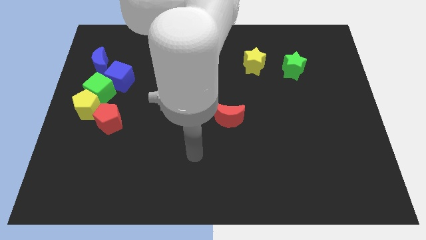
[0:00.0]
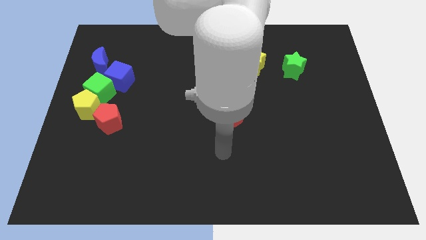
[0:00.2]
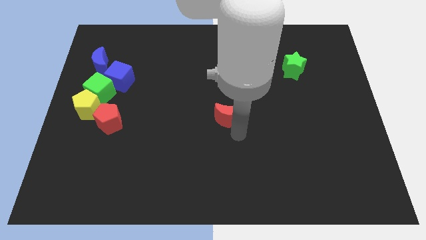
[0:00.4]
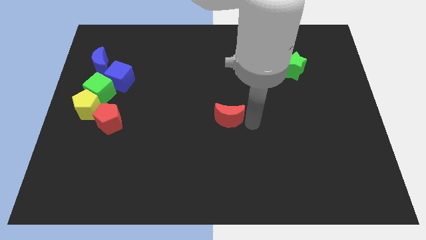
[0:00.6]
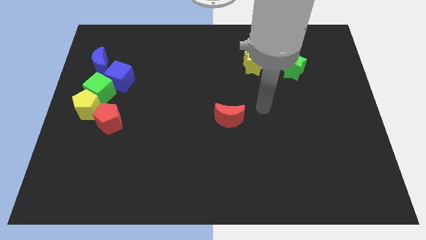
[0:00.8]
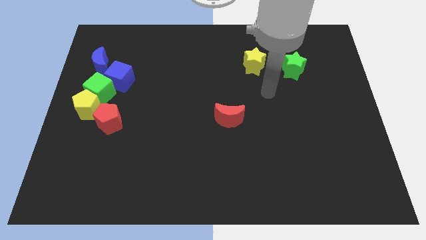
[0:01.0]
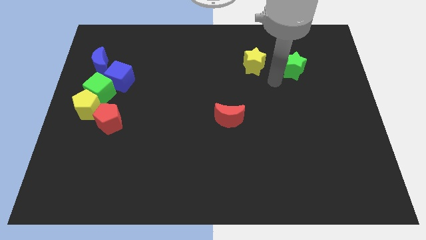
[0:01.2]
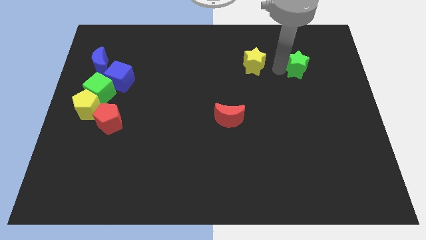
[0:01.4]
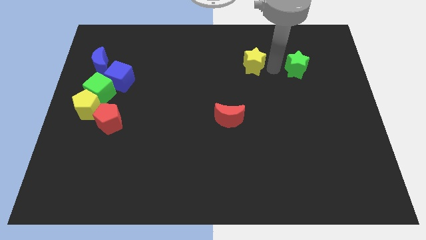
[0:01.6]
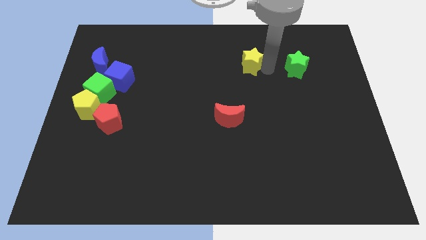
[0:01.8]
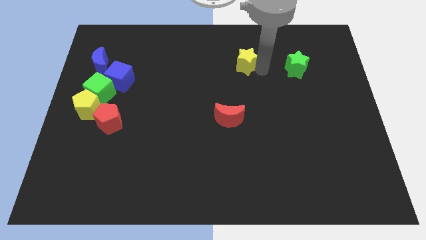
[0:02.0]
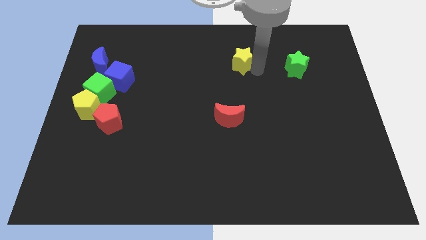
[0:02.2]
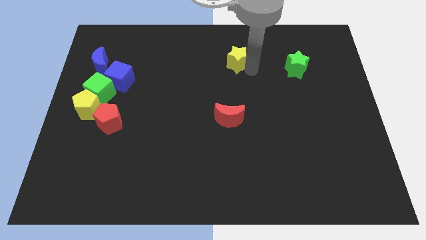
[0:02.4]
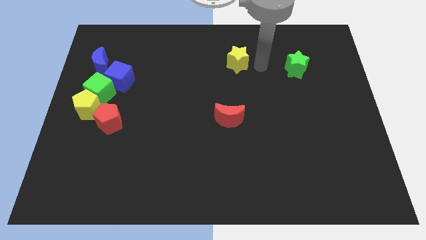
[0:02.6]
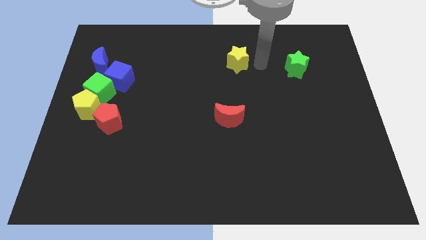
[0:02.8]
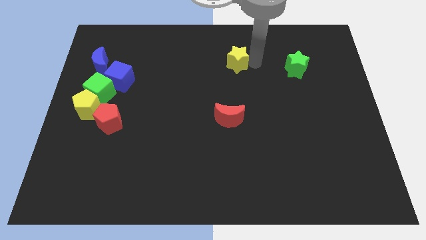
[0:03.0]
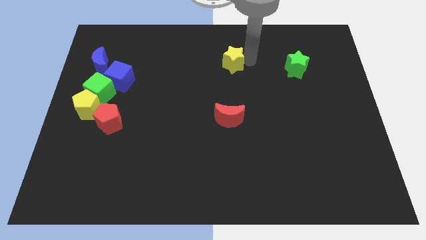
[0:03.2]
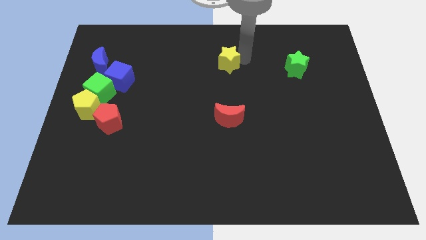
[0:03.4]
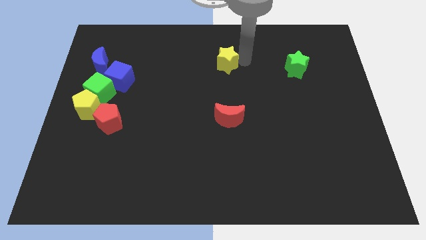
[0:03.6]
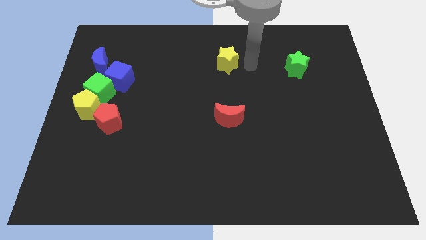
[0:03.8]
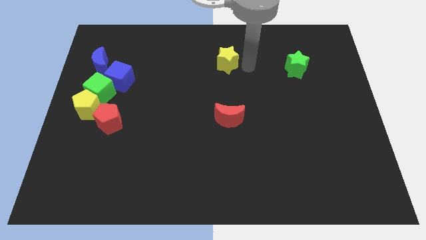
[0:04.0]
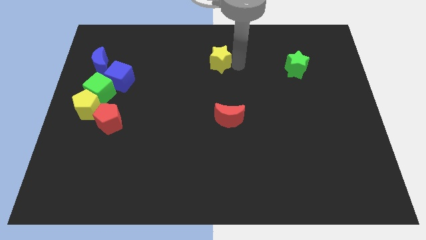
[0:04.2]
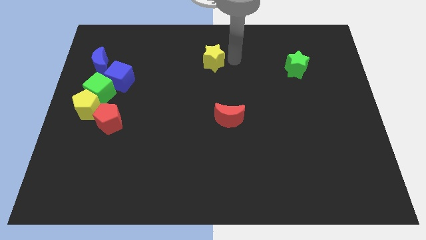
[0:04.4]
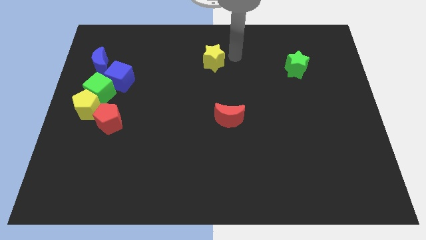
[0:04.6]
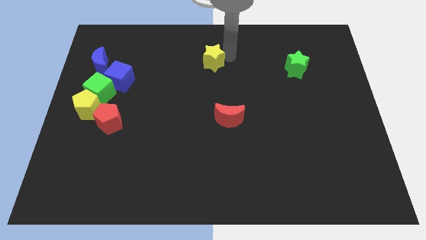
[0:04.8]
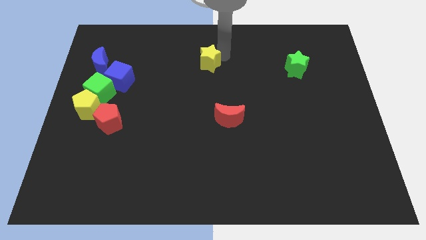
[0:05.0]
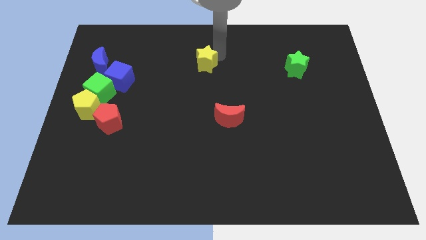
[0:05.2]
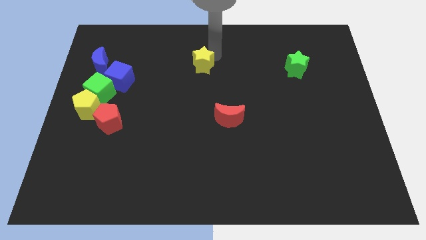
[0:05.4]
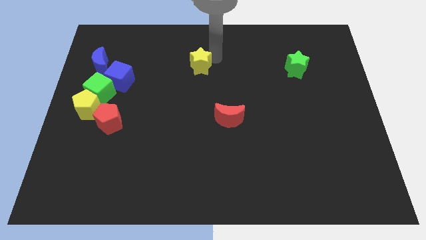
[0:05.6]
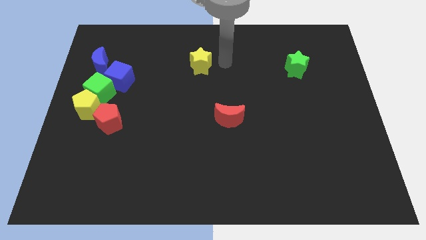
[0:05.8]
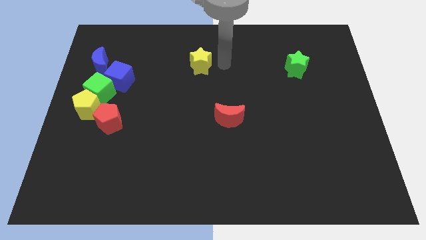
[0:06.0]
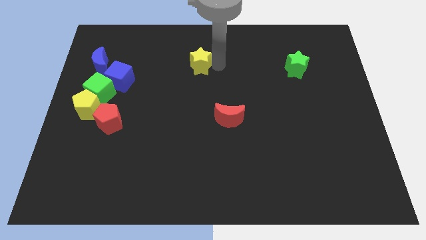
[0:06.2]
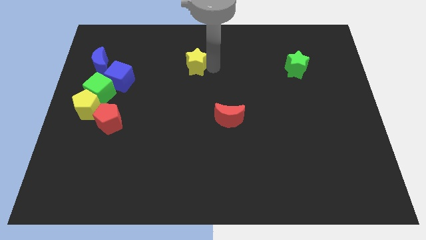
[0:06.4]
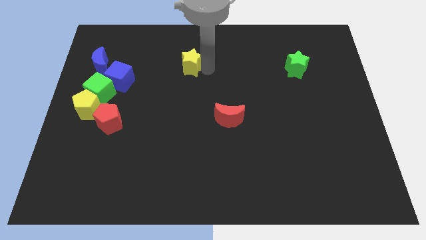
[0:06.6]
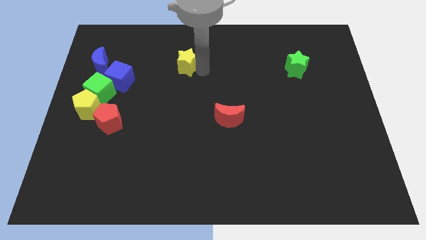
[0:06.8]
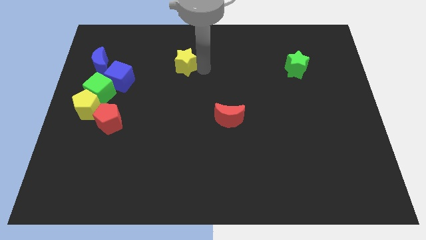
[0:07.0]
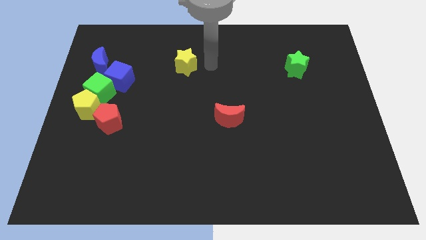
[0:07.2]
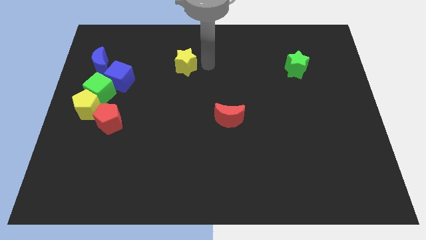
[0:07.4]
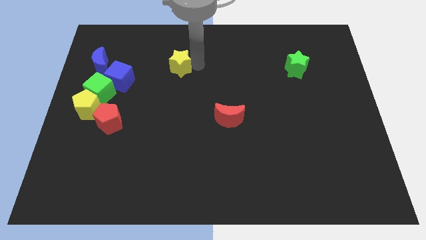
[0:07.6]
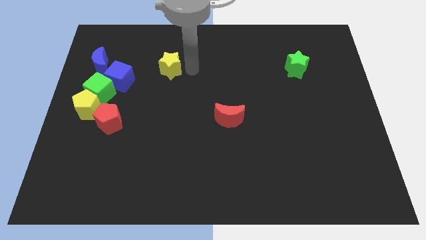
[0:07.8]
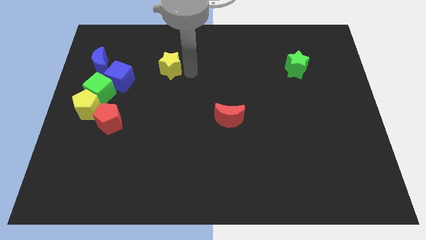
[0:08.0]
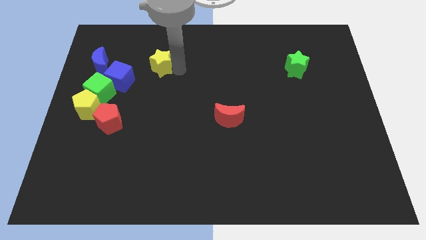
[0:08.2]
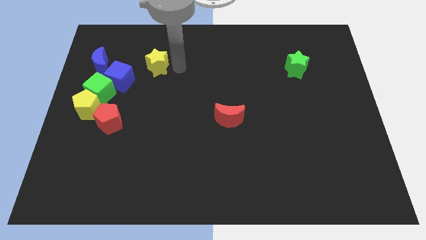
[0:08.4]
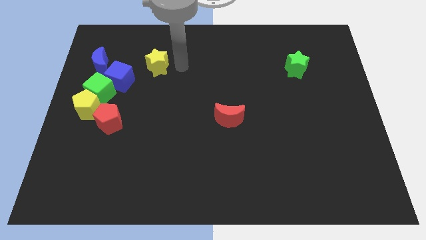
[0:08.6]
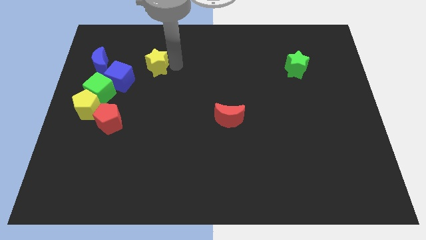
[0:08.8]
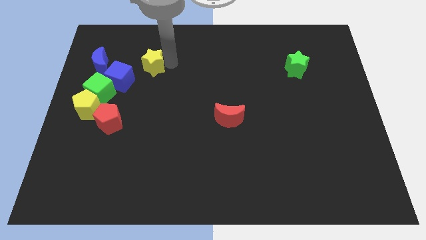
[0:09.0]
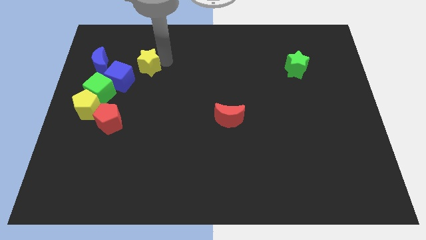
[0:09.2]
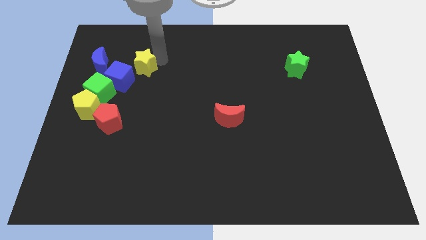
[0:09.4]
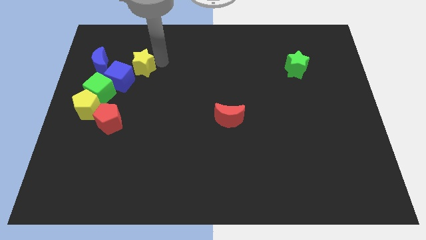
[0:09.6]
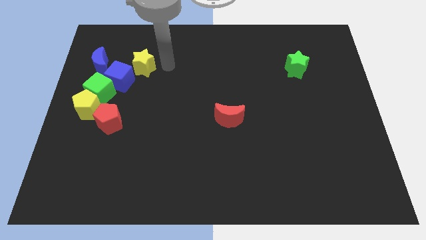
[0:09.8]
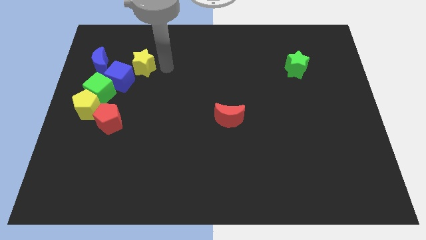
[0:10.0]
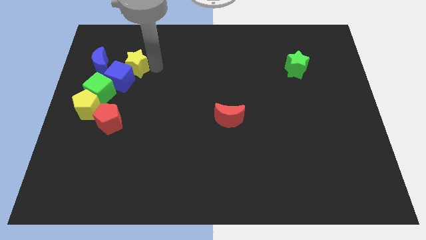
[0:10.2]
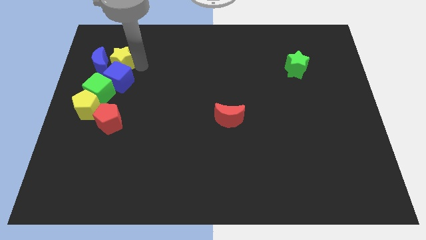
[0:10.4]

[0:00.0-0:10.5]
slide the yellow star next to the blue moon

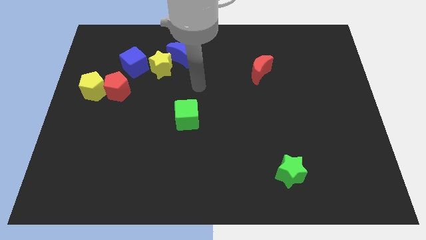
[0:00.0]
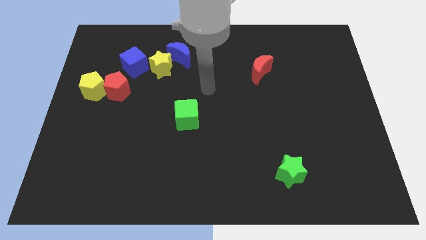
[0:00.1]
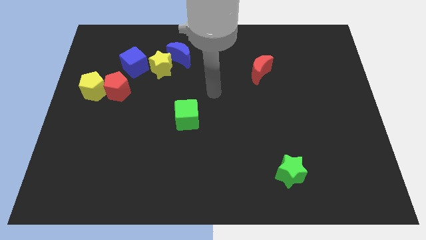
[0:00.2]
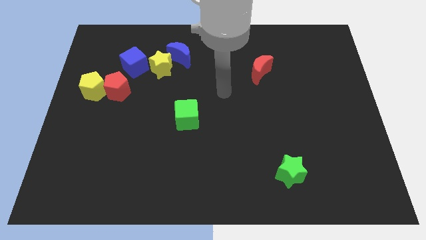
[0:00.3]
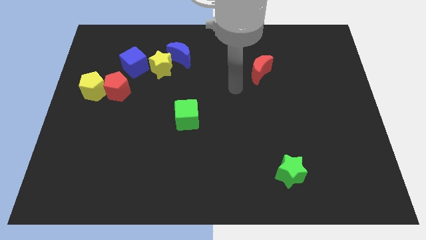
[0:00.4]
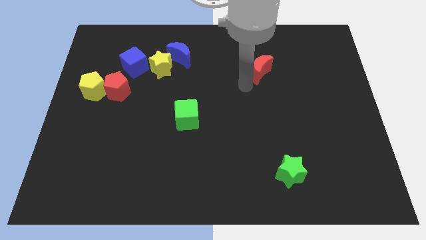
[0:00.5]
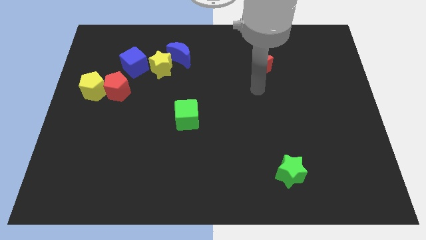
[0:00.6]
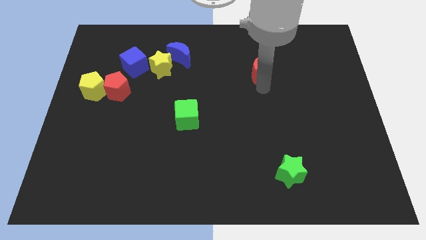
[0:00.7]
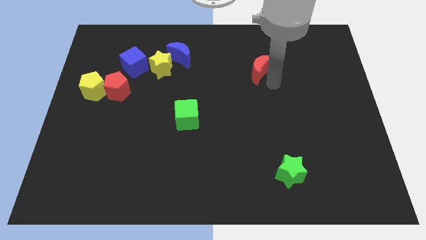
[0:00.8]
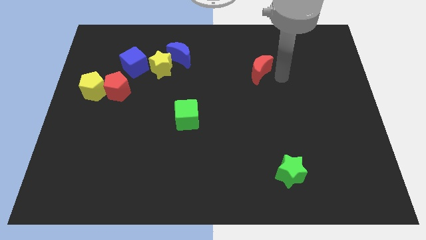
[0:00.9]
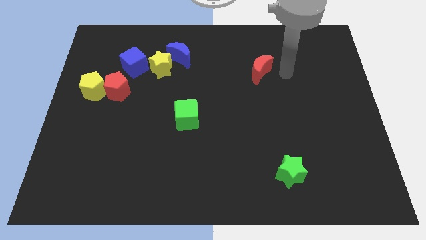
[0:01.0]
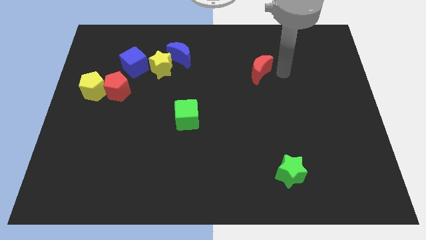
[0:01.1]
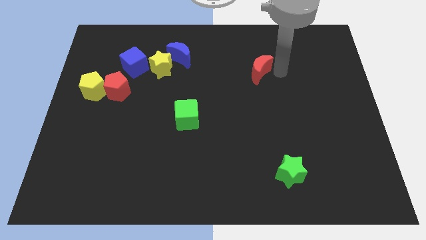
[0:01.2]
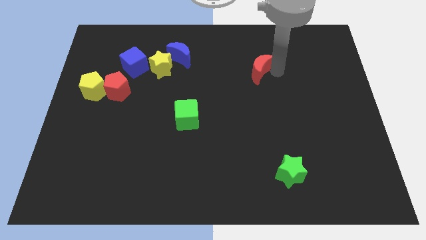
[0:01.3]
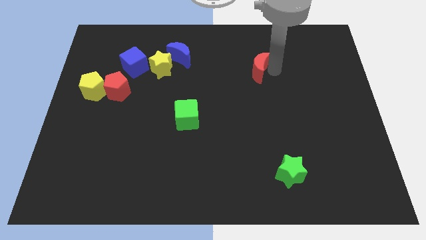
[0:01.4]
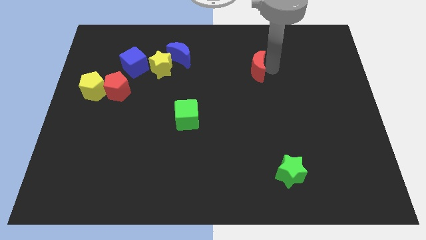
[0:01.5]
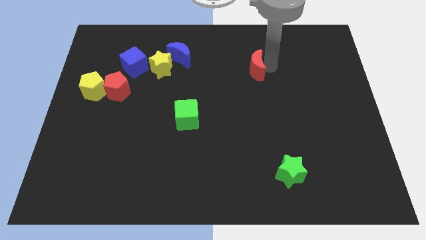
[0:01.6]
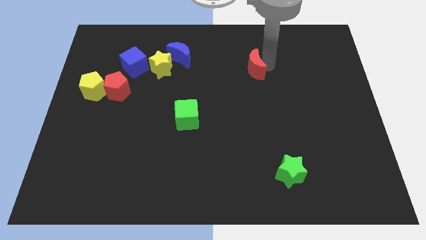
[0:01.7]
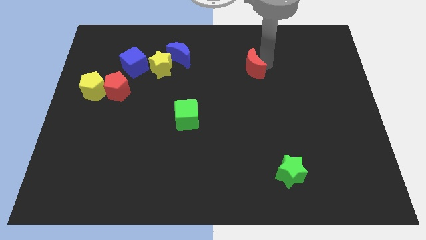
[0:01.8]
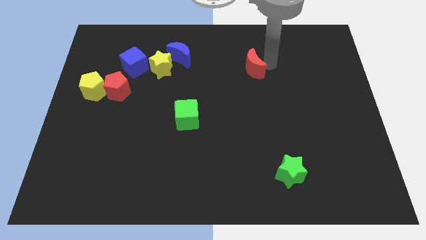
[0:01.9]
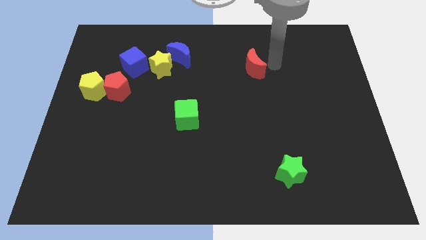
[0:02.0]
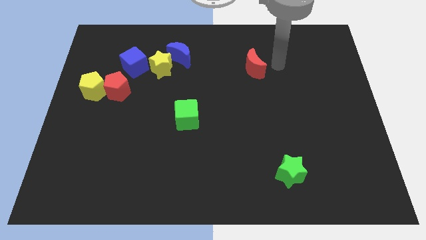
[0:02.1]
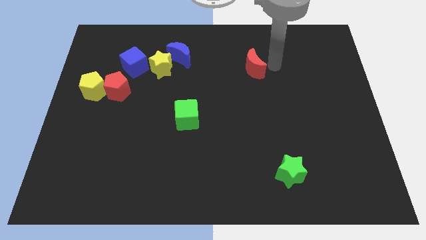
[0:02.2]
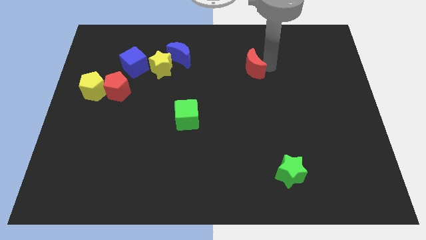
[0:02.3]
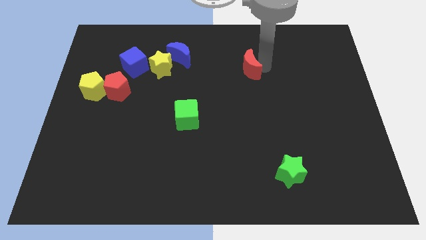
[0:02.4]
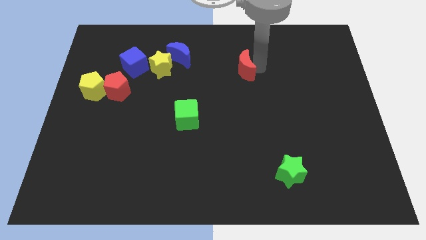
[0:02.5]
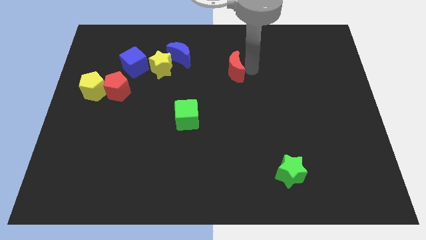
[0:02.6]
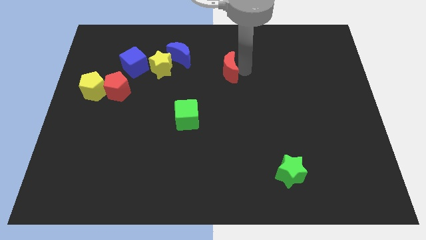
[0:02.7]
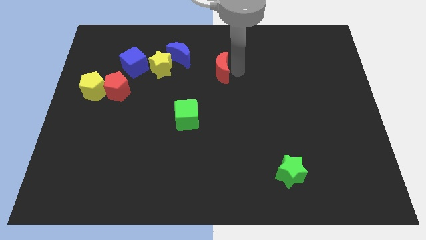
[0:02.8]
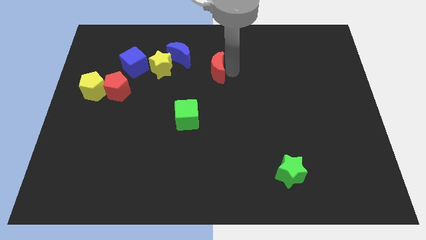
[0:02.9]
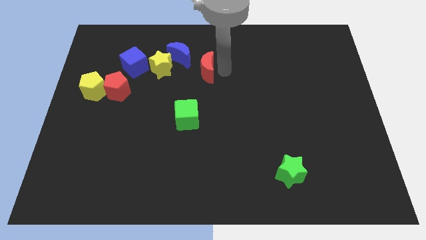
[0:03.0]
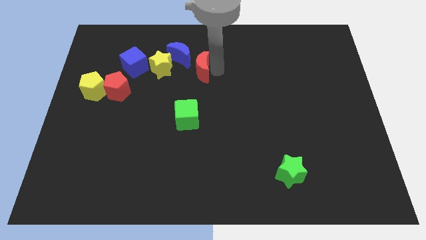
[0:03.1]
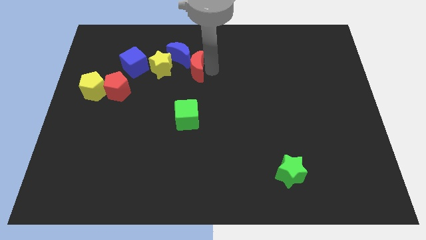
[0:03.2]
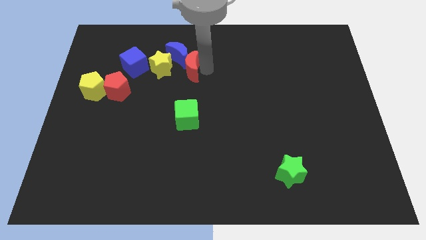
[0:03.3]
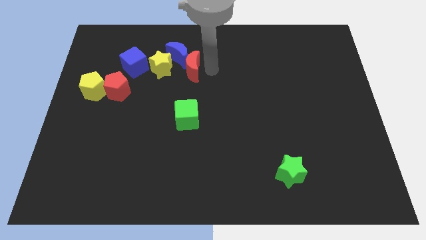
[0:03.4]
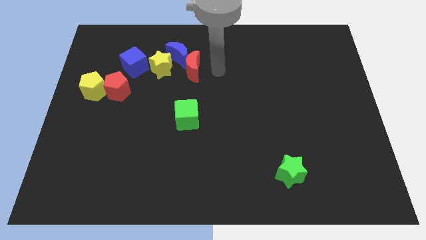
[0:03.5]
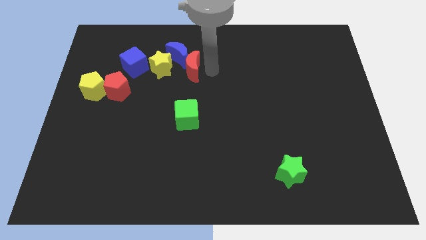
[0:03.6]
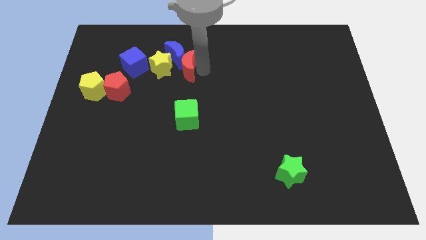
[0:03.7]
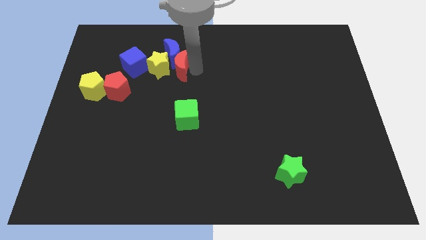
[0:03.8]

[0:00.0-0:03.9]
move the red moon to the yellow star
